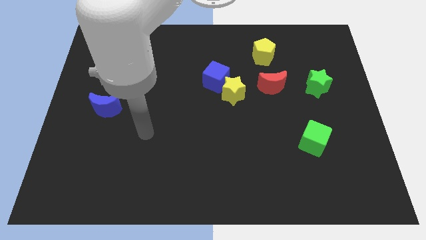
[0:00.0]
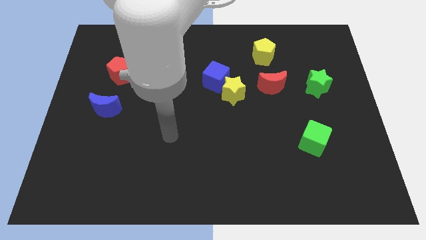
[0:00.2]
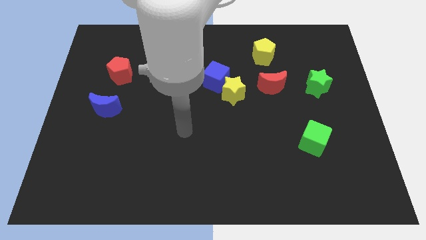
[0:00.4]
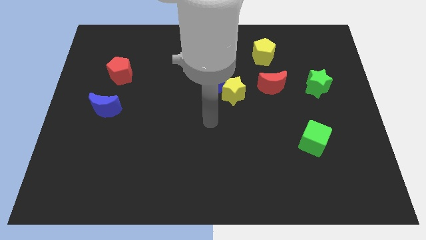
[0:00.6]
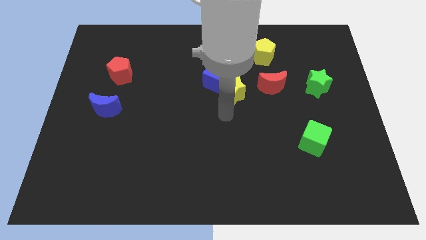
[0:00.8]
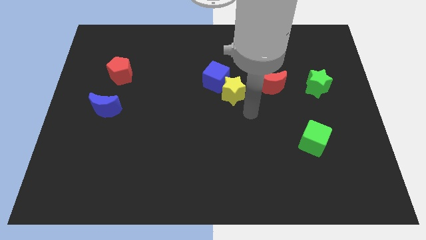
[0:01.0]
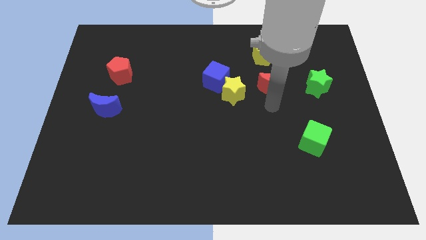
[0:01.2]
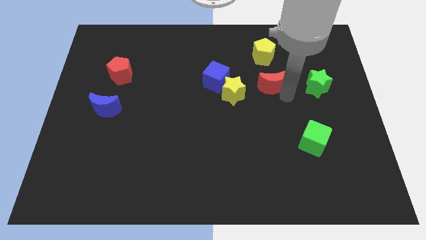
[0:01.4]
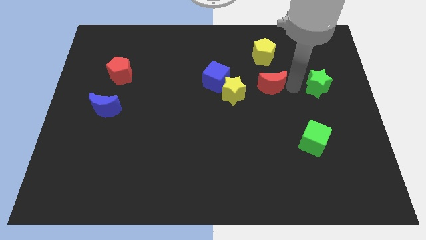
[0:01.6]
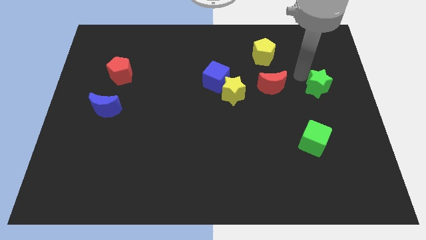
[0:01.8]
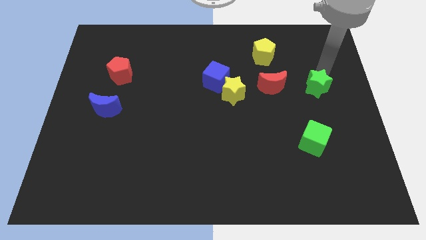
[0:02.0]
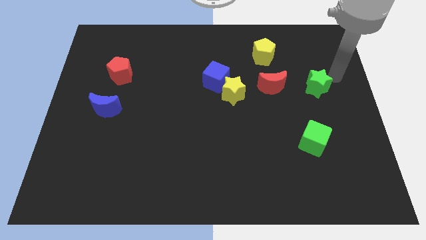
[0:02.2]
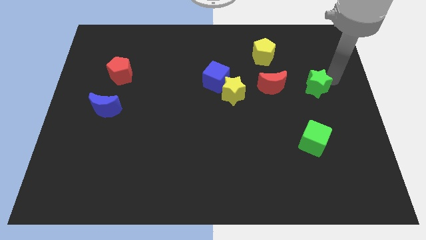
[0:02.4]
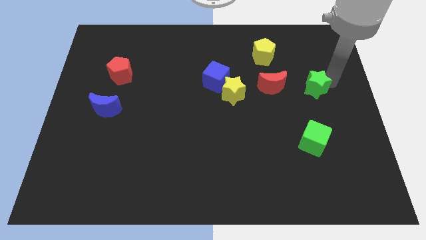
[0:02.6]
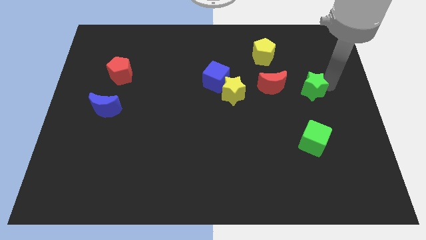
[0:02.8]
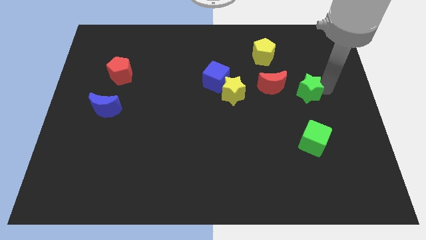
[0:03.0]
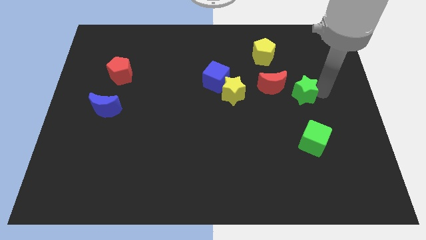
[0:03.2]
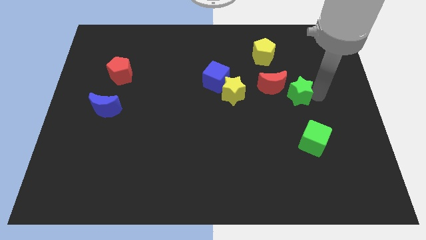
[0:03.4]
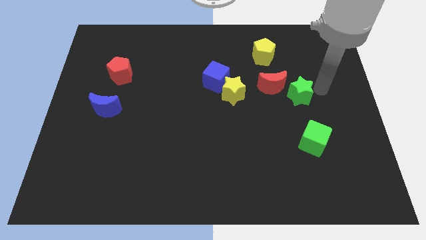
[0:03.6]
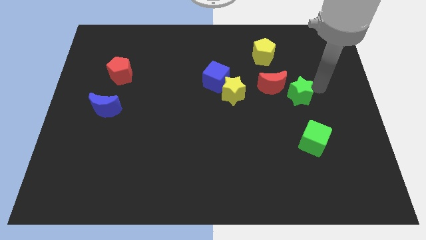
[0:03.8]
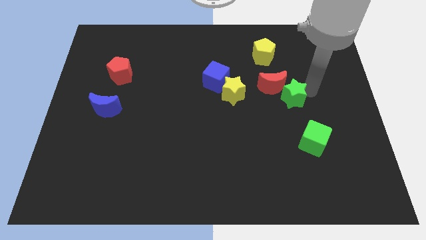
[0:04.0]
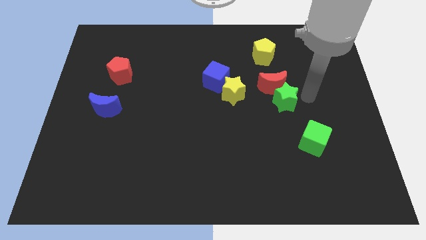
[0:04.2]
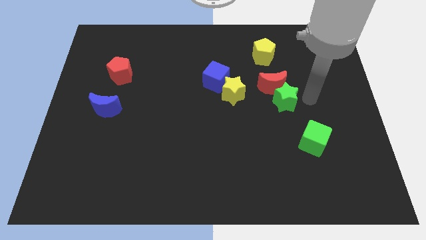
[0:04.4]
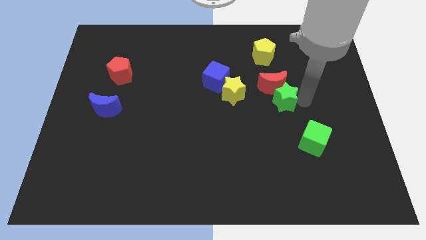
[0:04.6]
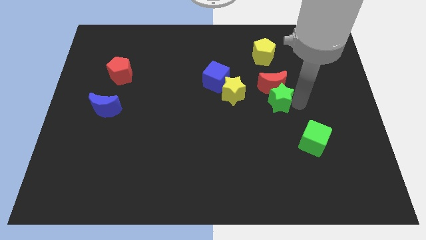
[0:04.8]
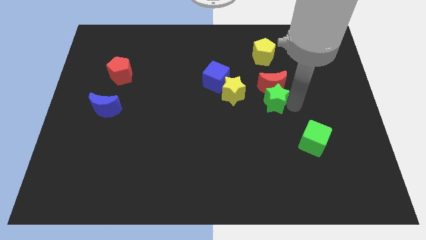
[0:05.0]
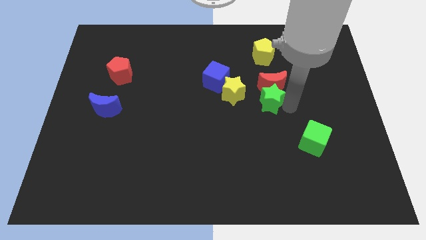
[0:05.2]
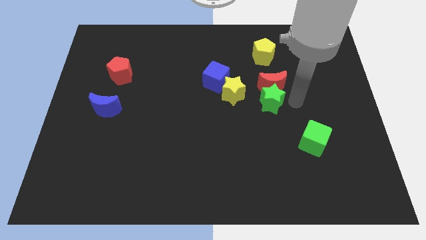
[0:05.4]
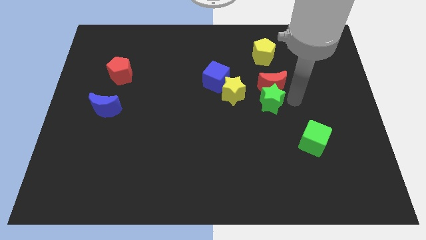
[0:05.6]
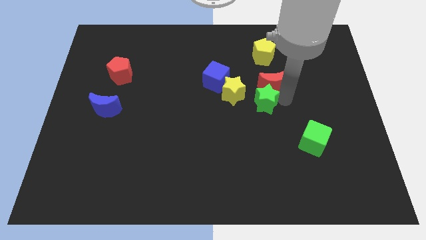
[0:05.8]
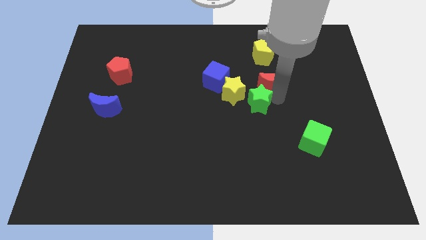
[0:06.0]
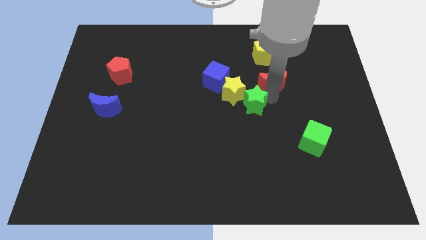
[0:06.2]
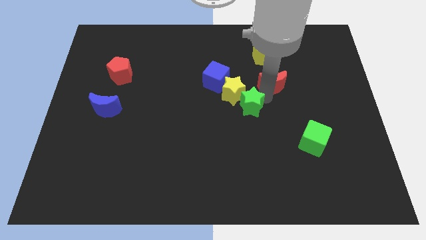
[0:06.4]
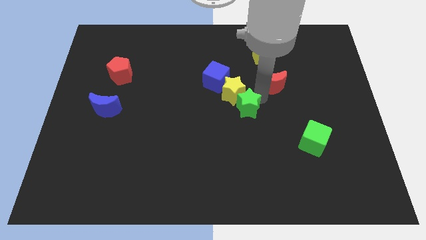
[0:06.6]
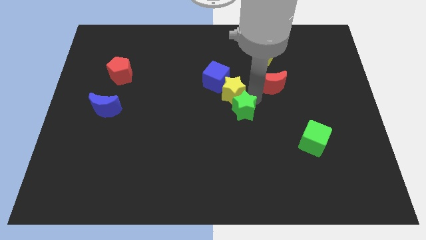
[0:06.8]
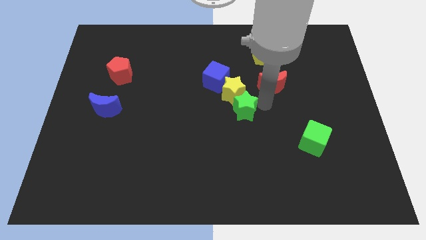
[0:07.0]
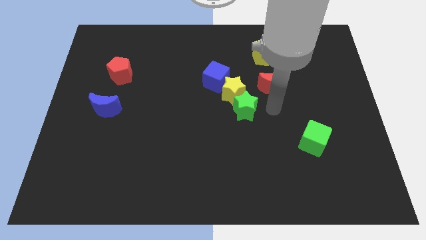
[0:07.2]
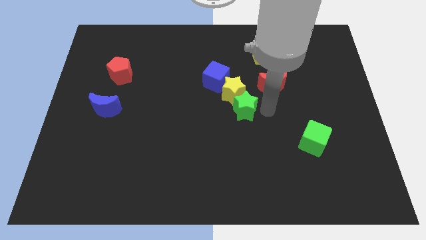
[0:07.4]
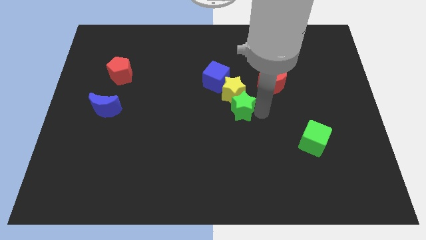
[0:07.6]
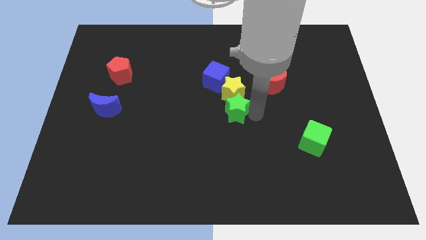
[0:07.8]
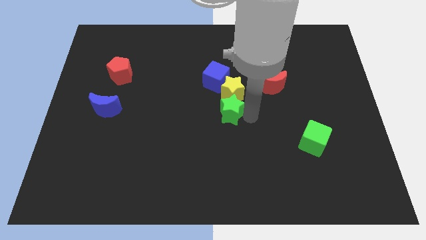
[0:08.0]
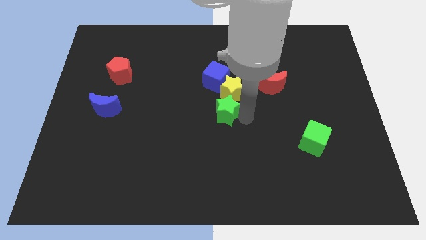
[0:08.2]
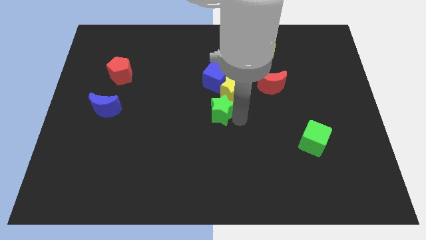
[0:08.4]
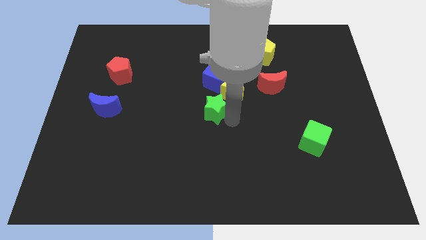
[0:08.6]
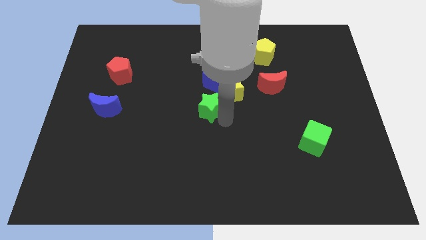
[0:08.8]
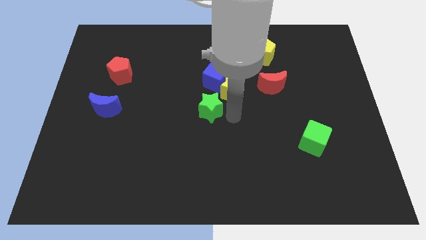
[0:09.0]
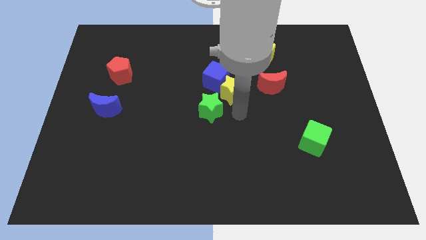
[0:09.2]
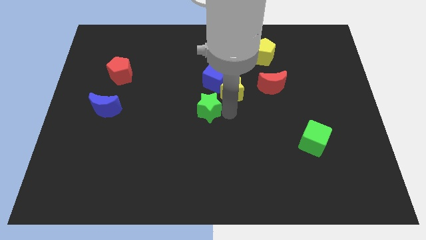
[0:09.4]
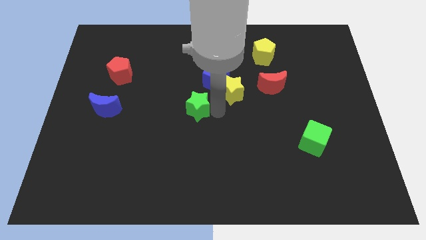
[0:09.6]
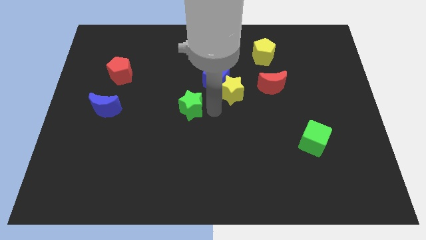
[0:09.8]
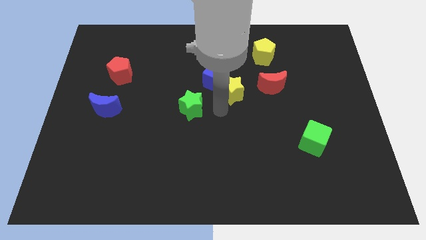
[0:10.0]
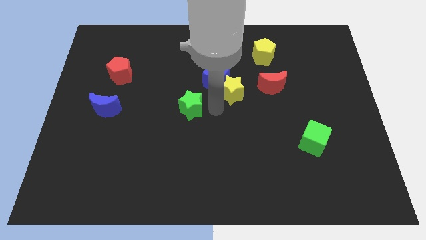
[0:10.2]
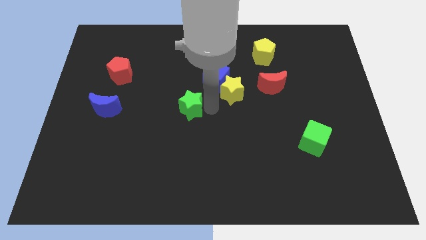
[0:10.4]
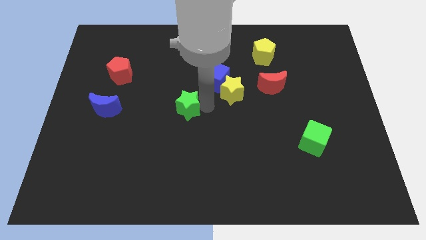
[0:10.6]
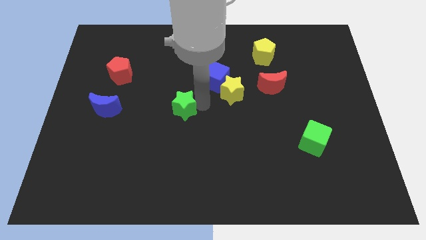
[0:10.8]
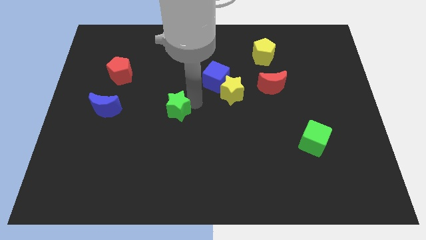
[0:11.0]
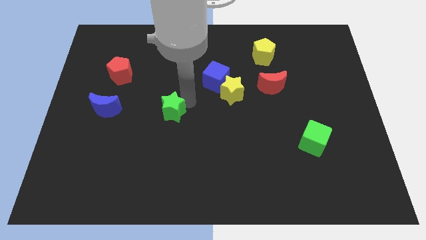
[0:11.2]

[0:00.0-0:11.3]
push the green star right of the blue moon

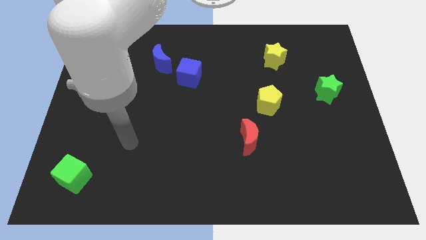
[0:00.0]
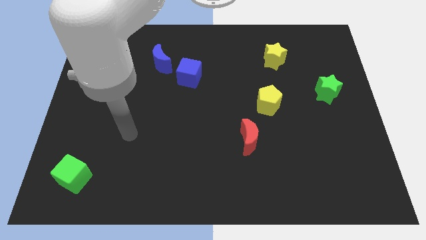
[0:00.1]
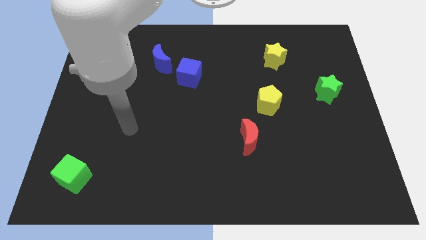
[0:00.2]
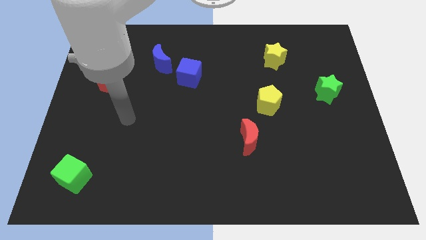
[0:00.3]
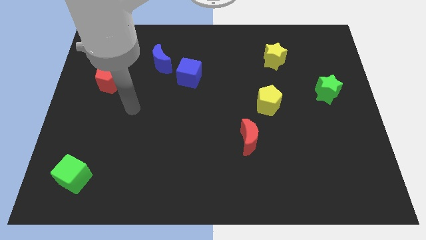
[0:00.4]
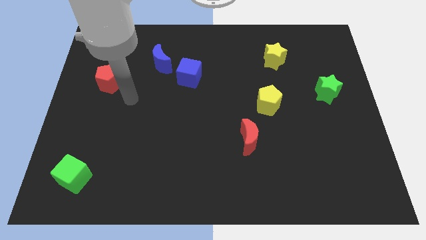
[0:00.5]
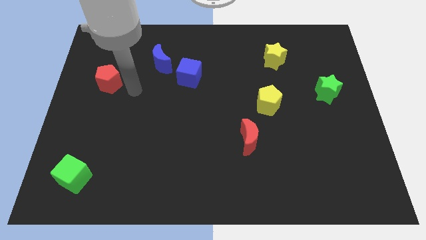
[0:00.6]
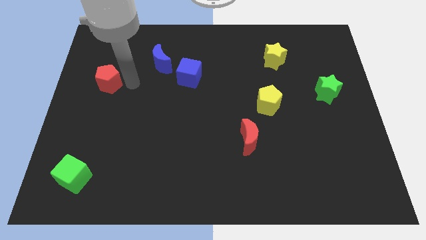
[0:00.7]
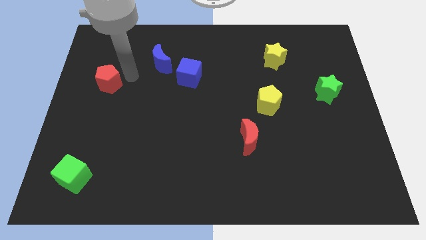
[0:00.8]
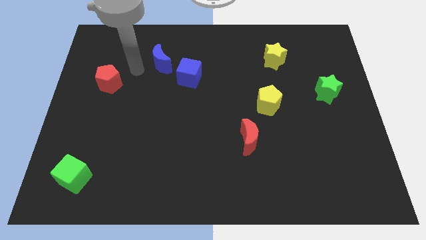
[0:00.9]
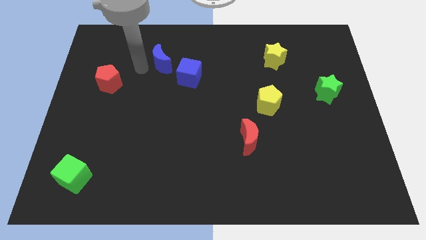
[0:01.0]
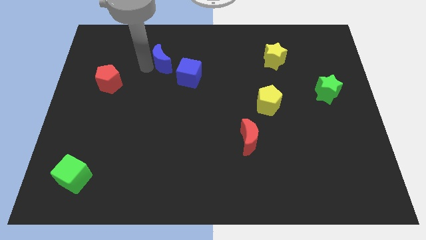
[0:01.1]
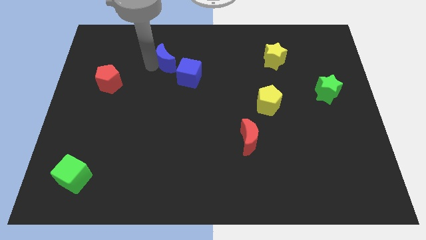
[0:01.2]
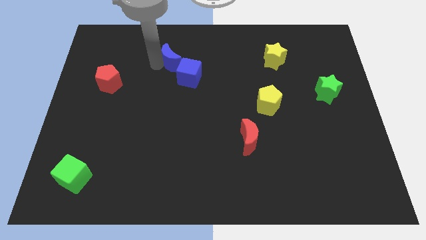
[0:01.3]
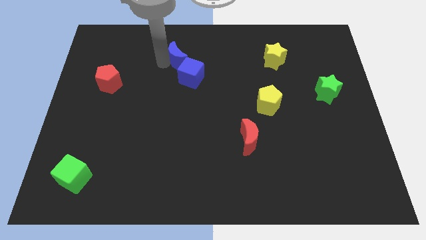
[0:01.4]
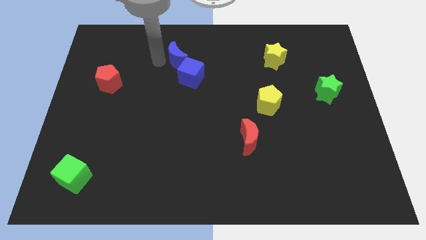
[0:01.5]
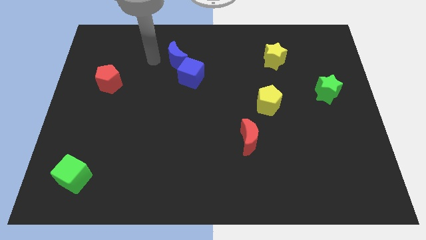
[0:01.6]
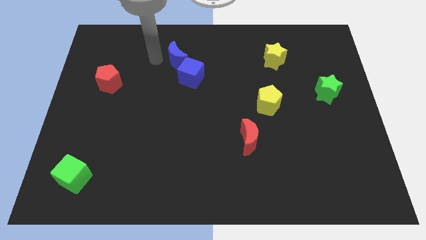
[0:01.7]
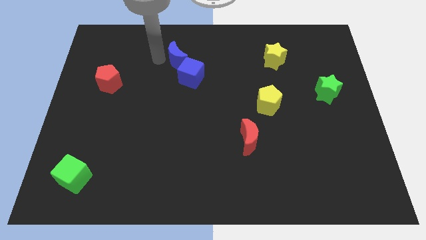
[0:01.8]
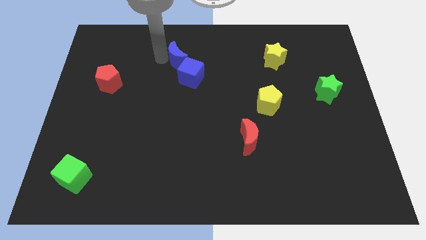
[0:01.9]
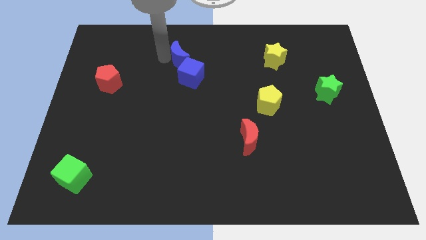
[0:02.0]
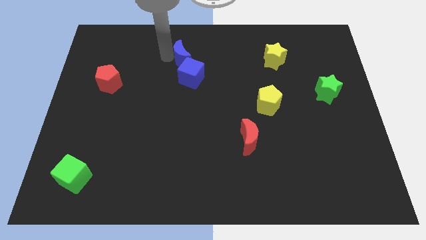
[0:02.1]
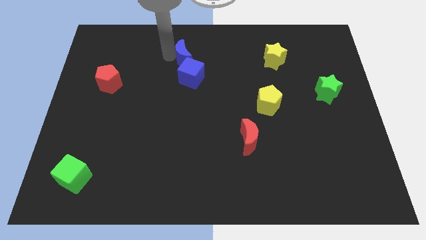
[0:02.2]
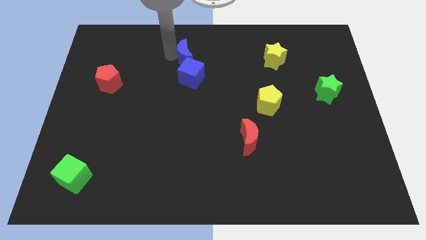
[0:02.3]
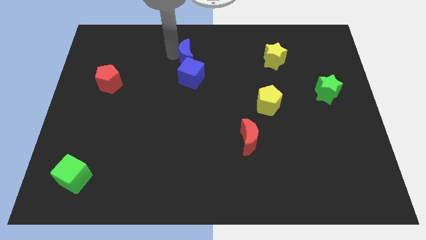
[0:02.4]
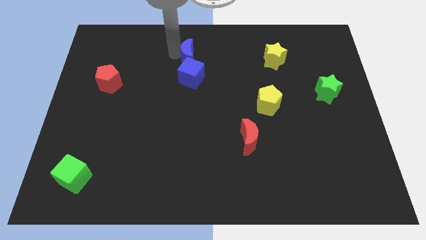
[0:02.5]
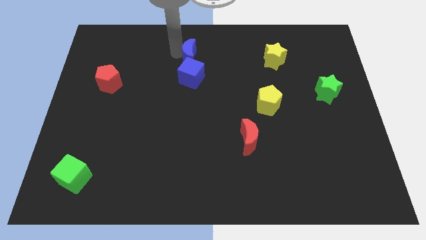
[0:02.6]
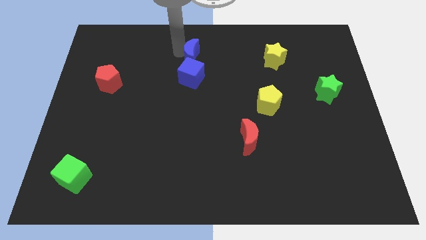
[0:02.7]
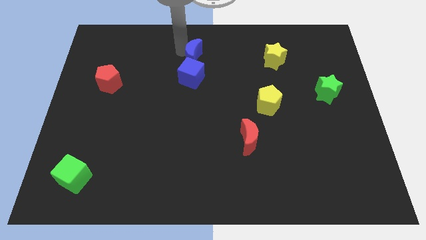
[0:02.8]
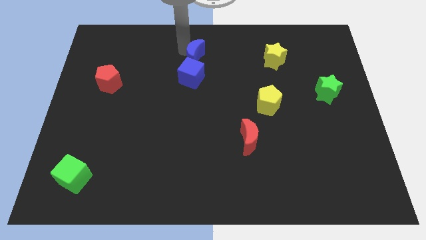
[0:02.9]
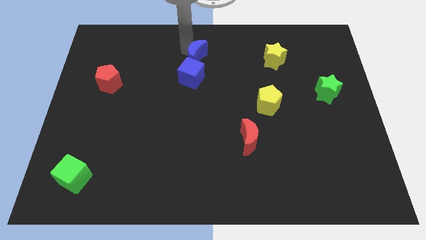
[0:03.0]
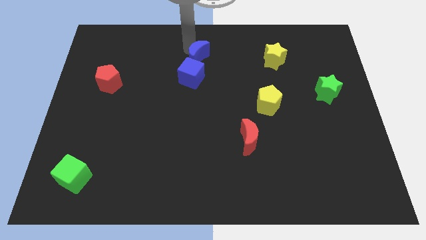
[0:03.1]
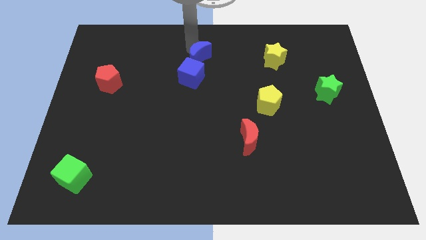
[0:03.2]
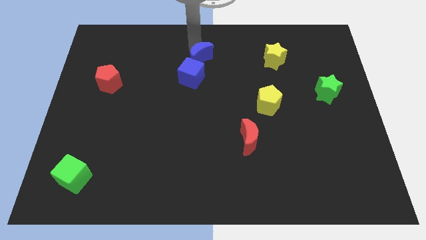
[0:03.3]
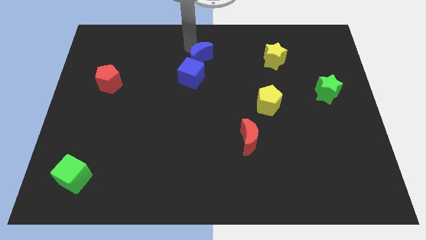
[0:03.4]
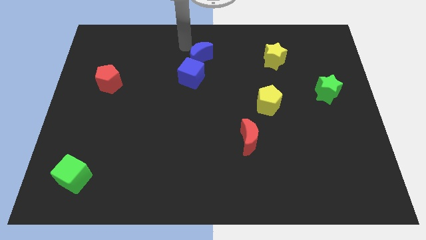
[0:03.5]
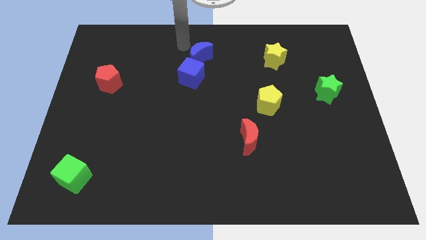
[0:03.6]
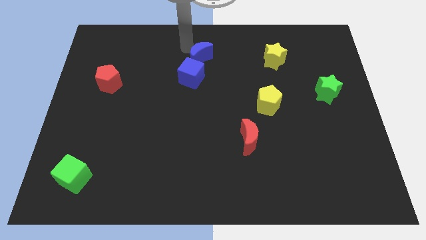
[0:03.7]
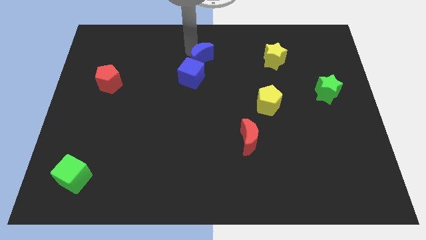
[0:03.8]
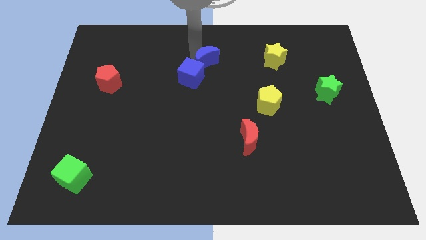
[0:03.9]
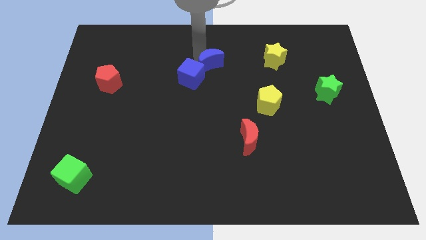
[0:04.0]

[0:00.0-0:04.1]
move the blue moon to the right of the blue cube
